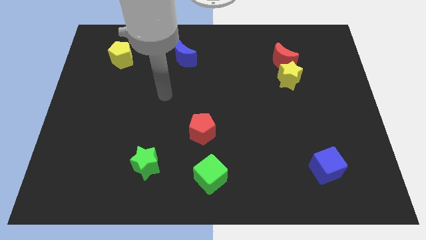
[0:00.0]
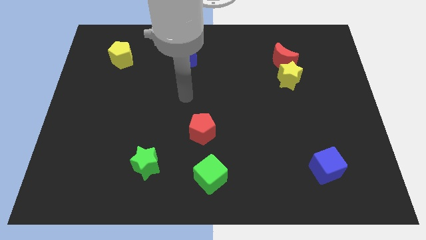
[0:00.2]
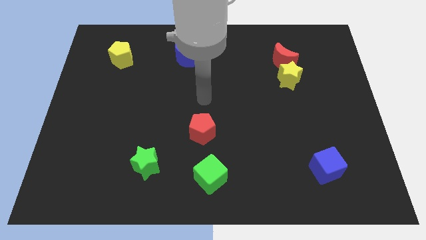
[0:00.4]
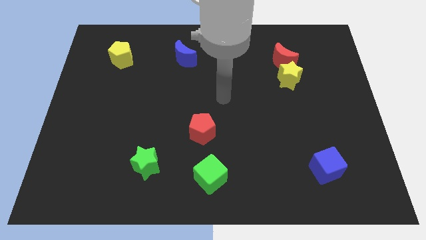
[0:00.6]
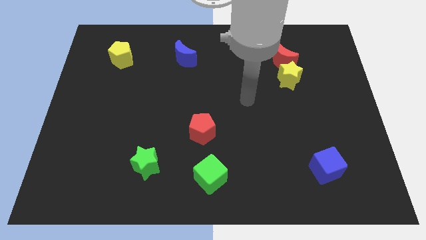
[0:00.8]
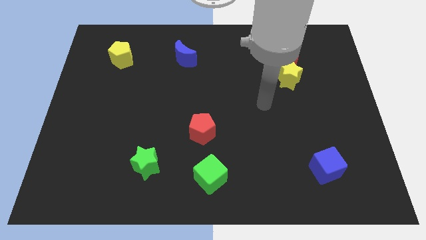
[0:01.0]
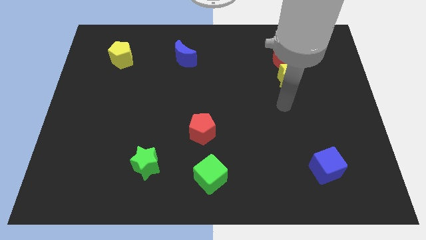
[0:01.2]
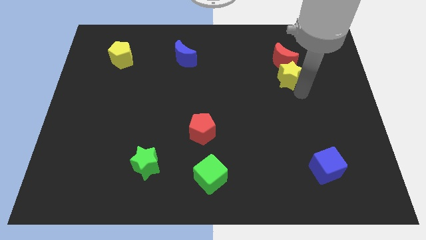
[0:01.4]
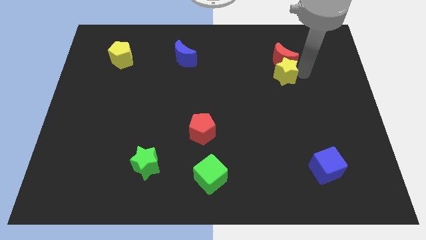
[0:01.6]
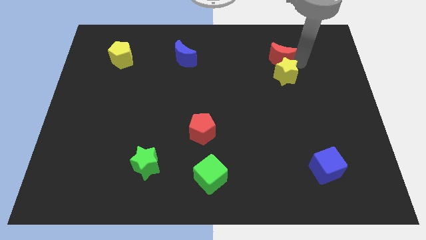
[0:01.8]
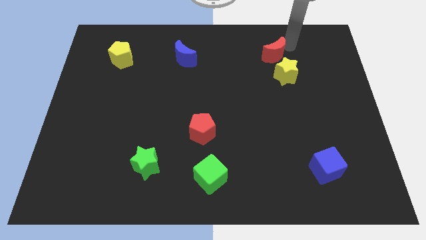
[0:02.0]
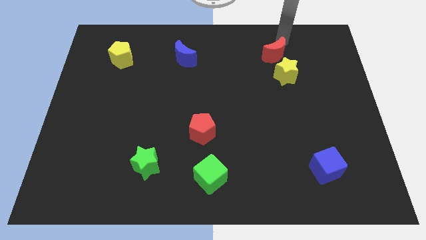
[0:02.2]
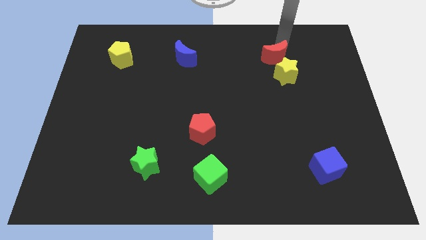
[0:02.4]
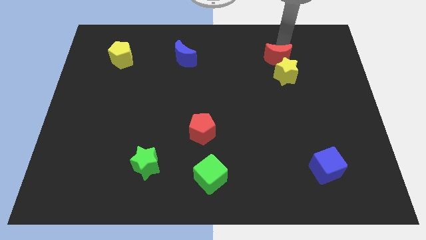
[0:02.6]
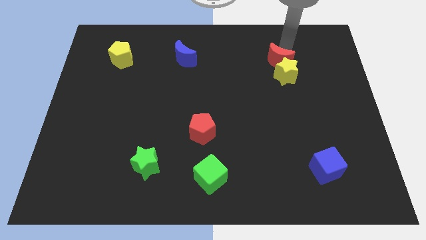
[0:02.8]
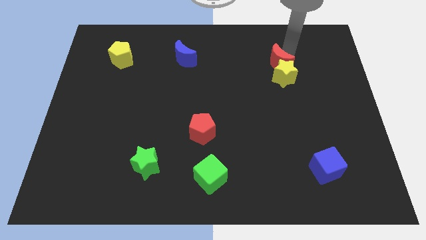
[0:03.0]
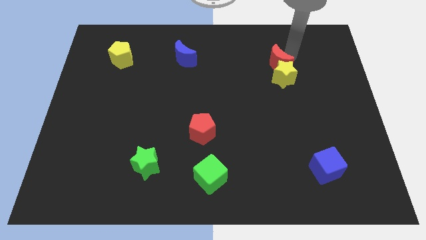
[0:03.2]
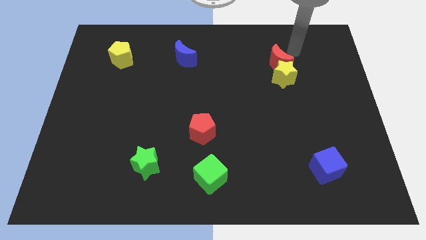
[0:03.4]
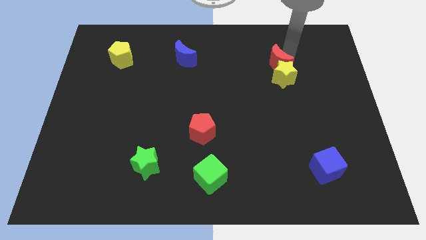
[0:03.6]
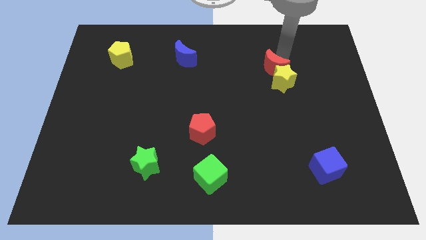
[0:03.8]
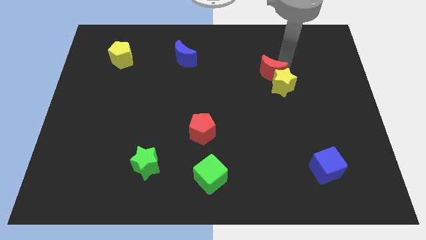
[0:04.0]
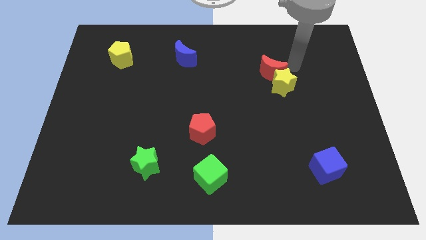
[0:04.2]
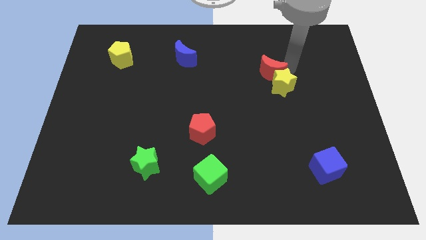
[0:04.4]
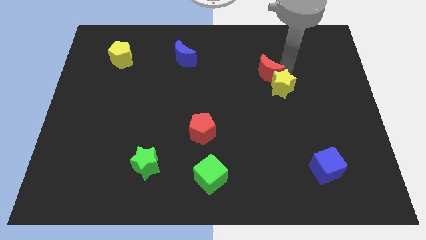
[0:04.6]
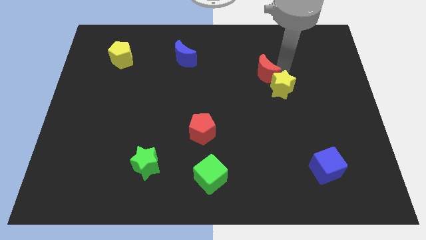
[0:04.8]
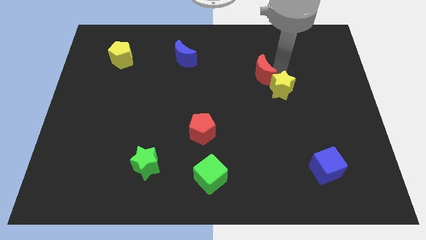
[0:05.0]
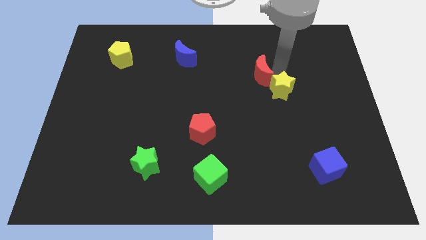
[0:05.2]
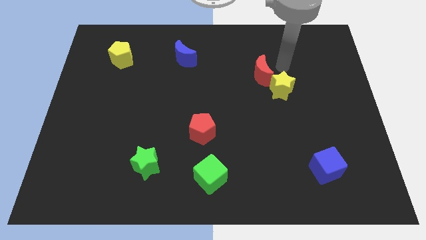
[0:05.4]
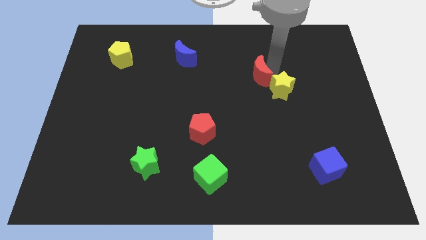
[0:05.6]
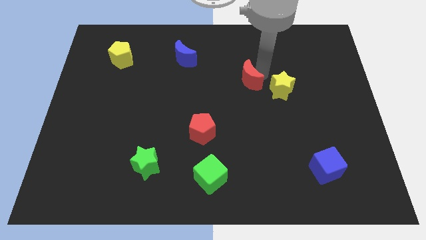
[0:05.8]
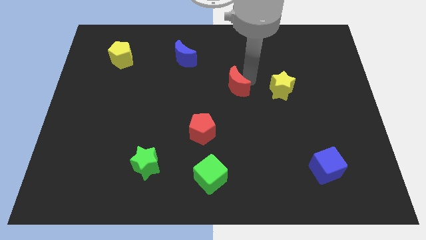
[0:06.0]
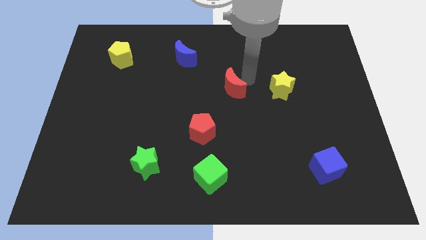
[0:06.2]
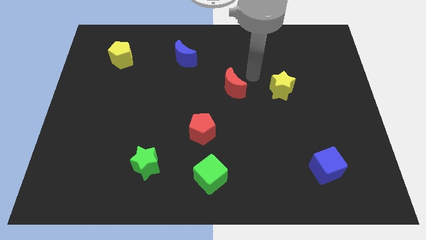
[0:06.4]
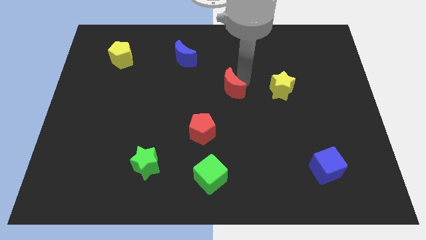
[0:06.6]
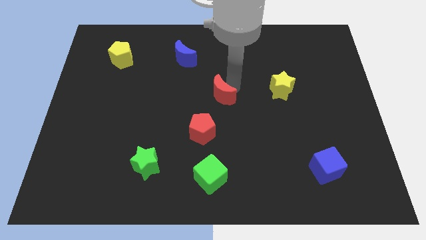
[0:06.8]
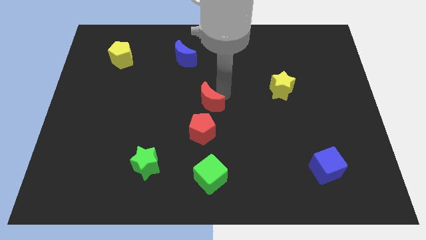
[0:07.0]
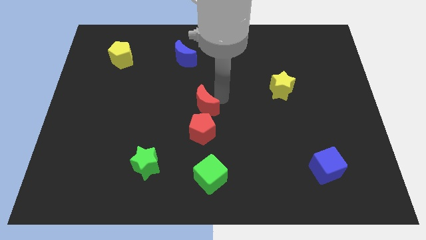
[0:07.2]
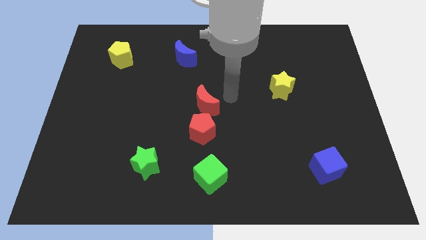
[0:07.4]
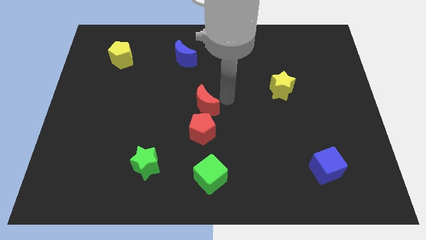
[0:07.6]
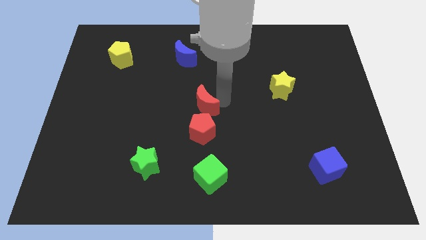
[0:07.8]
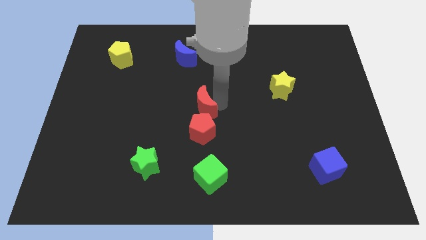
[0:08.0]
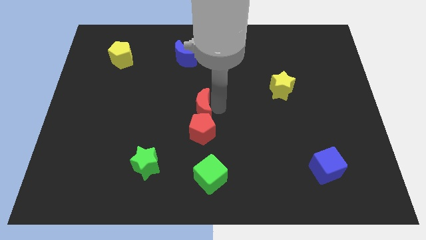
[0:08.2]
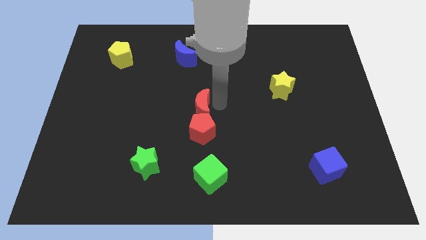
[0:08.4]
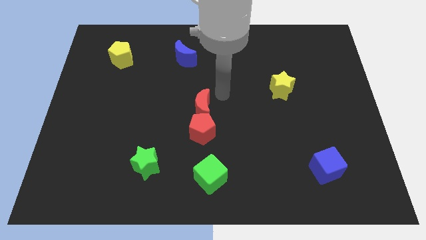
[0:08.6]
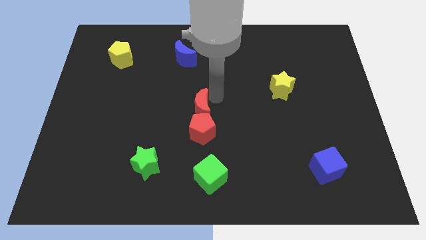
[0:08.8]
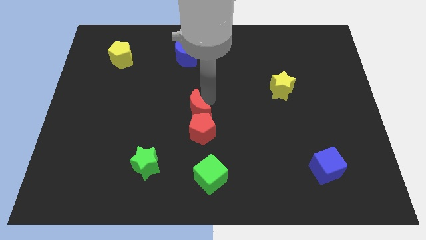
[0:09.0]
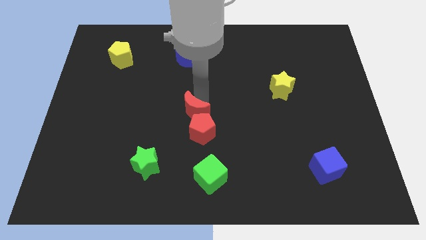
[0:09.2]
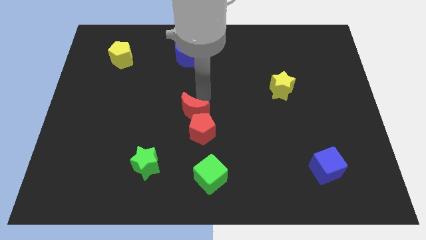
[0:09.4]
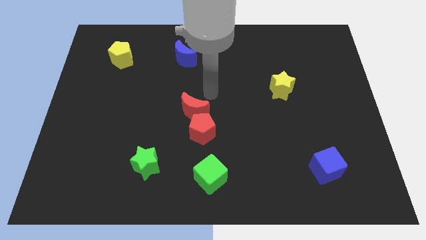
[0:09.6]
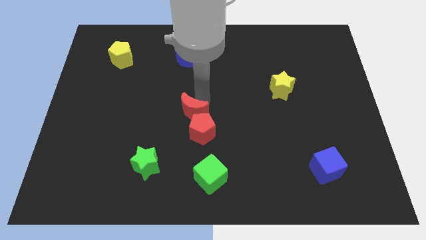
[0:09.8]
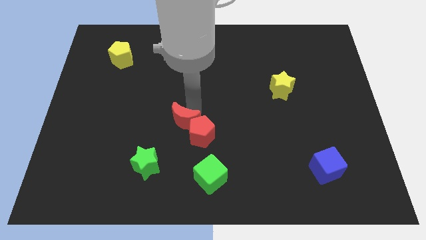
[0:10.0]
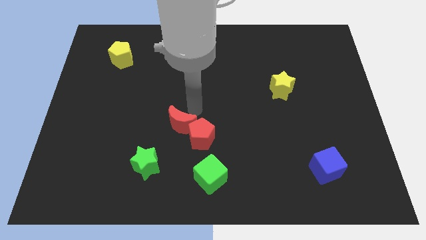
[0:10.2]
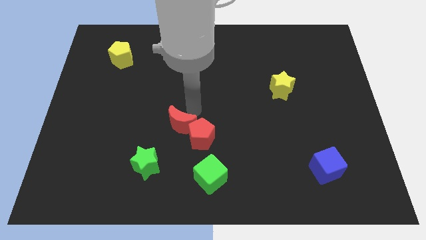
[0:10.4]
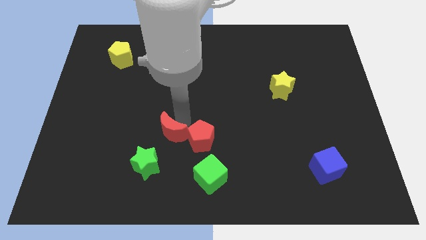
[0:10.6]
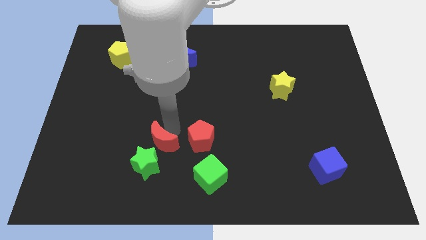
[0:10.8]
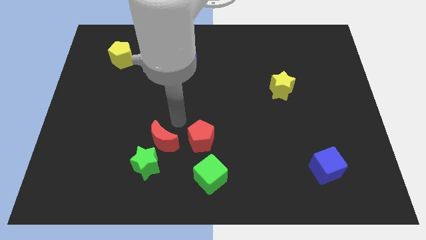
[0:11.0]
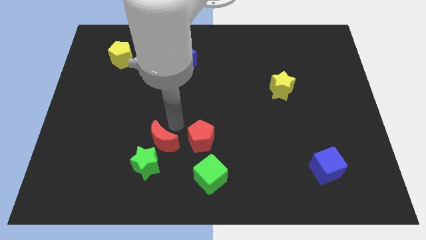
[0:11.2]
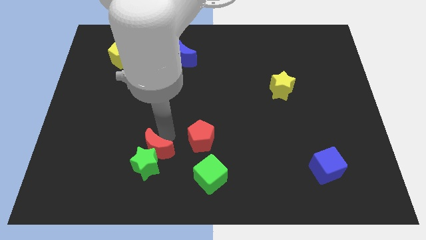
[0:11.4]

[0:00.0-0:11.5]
put the red moon towards the green star

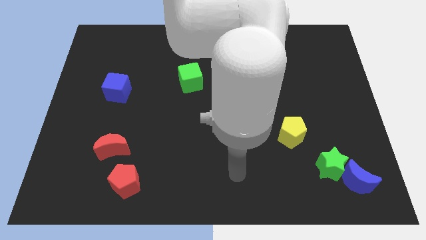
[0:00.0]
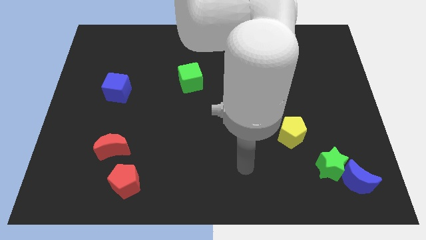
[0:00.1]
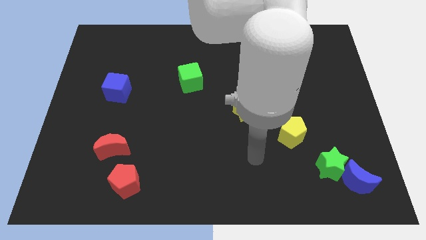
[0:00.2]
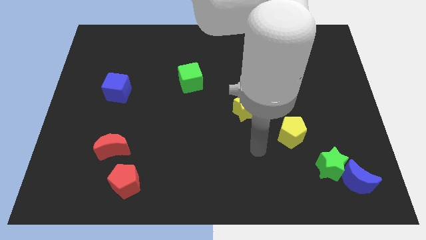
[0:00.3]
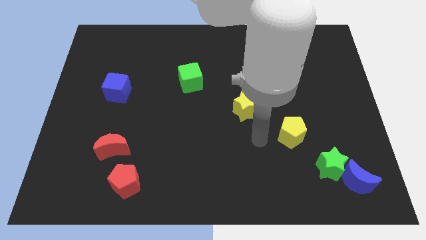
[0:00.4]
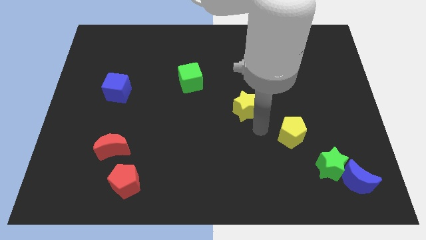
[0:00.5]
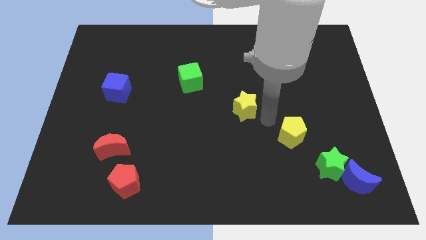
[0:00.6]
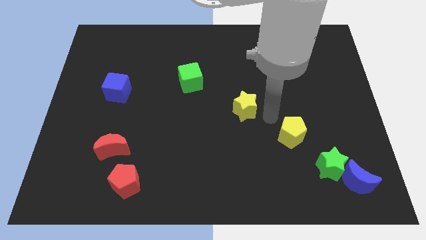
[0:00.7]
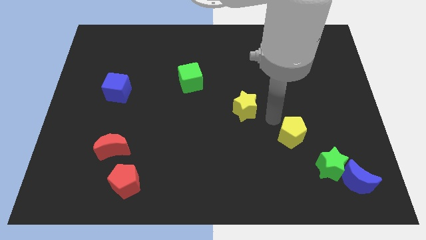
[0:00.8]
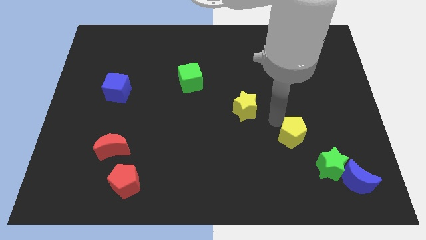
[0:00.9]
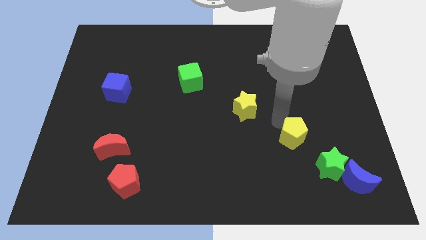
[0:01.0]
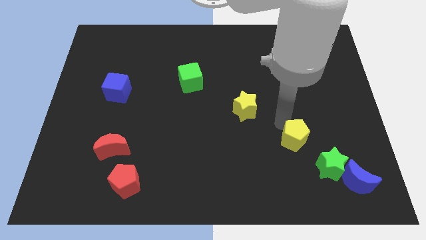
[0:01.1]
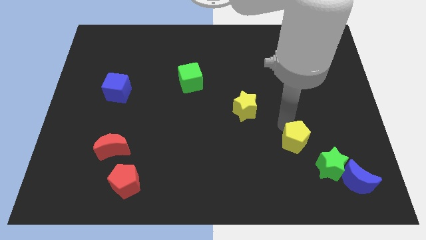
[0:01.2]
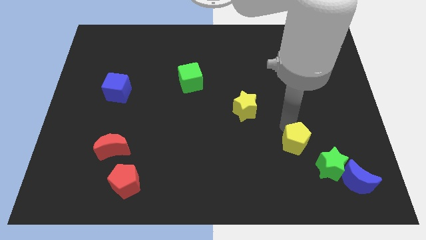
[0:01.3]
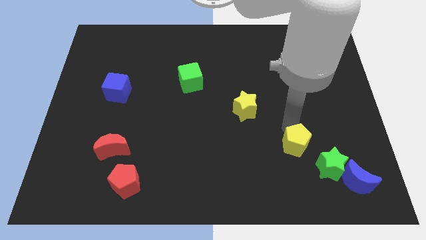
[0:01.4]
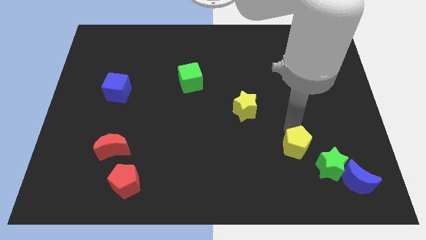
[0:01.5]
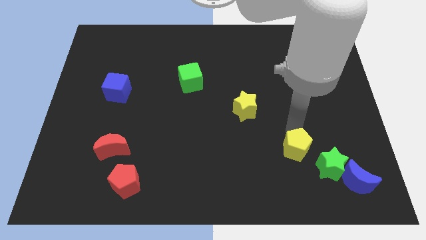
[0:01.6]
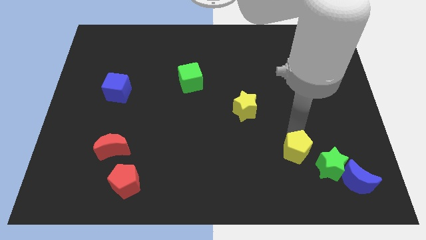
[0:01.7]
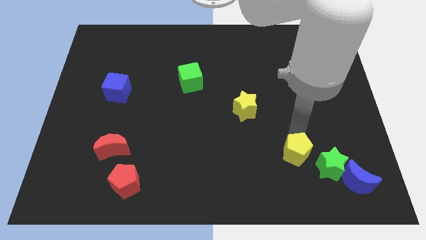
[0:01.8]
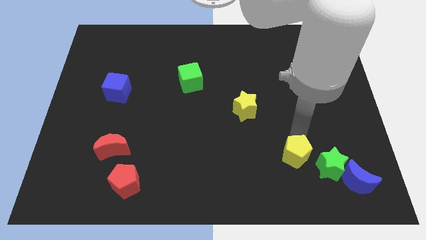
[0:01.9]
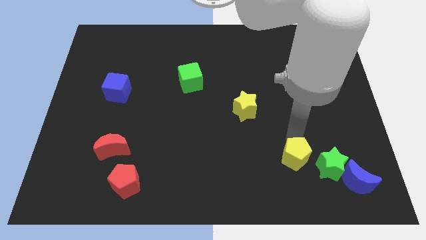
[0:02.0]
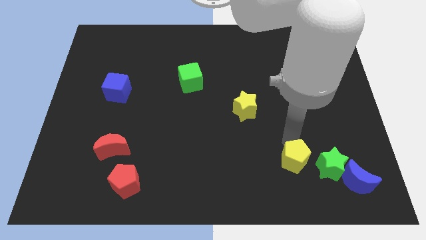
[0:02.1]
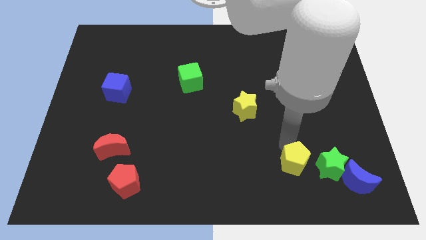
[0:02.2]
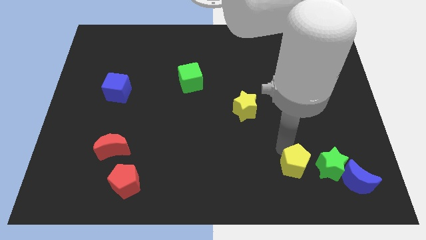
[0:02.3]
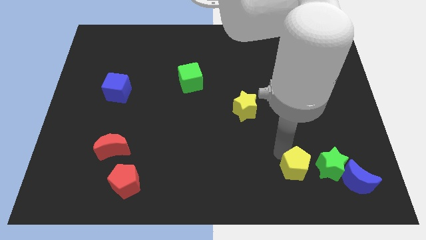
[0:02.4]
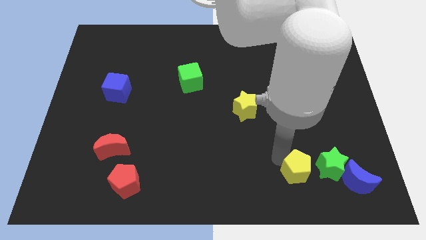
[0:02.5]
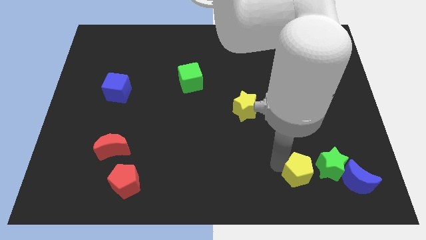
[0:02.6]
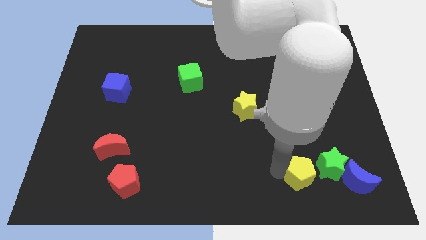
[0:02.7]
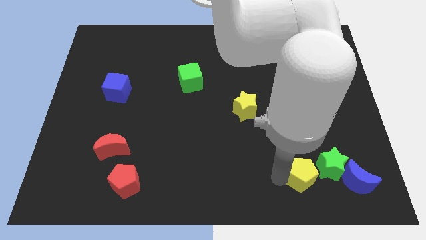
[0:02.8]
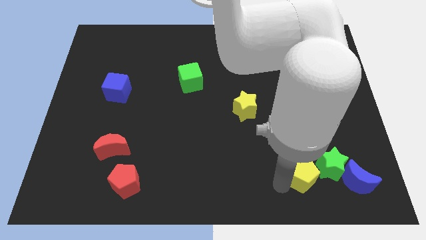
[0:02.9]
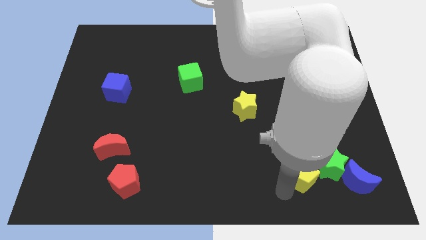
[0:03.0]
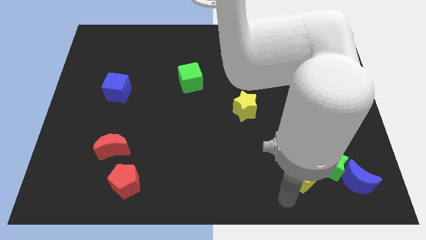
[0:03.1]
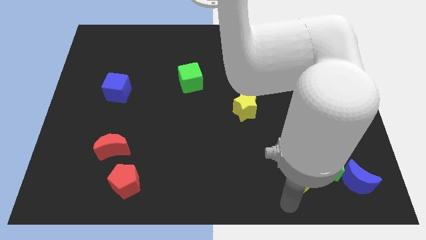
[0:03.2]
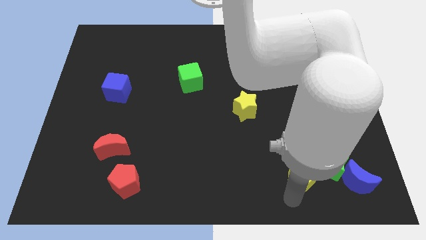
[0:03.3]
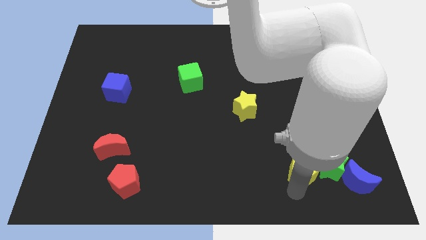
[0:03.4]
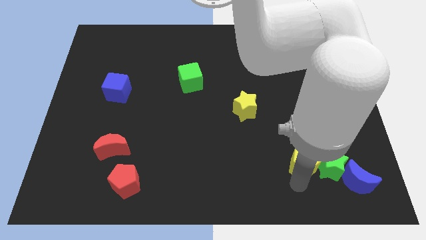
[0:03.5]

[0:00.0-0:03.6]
move the yellow pentagon close to the green star
